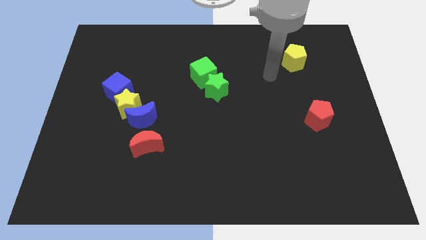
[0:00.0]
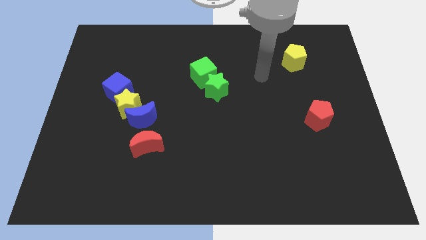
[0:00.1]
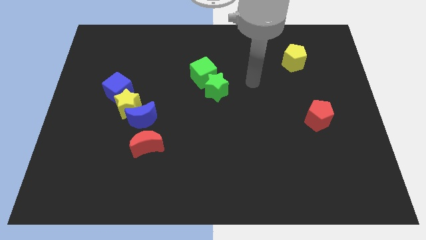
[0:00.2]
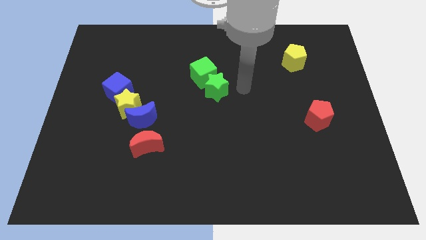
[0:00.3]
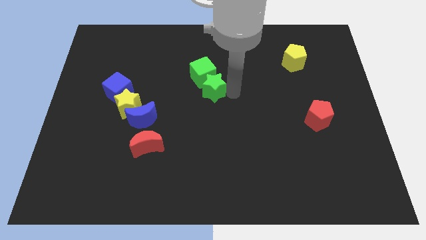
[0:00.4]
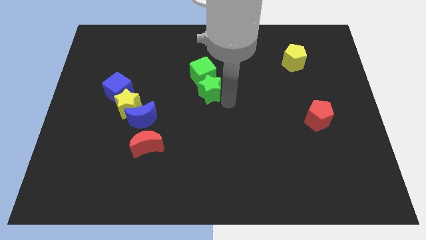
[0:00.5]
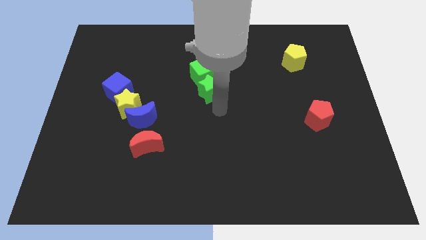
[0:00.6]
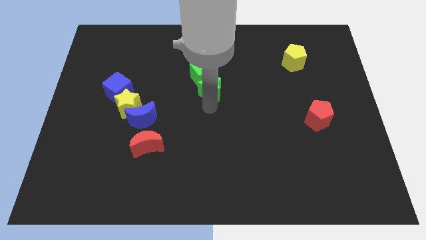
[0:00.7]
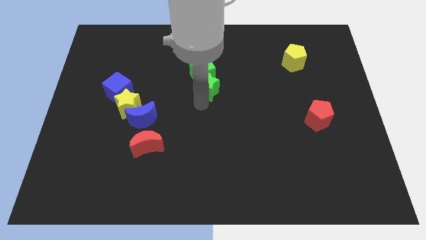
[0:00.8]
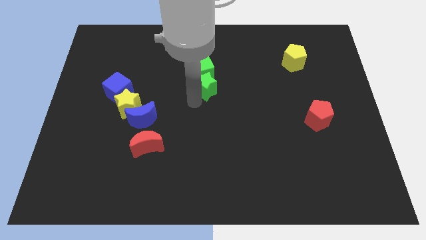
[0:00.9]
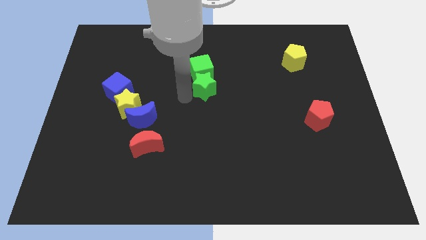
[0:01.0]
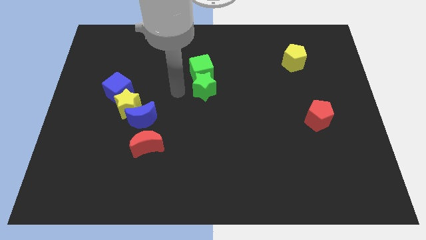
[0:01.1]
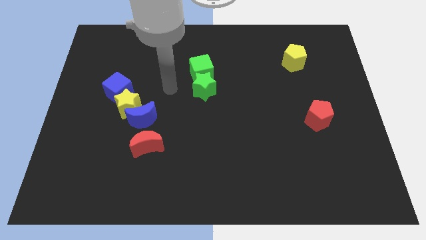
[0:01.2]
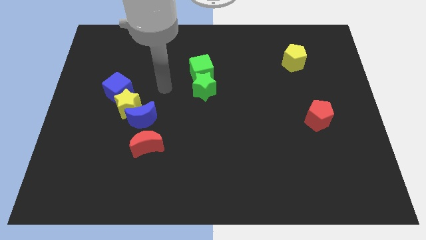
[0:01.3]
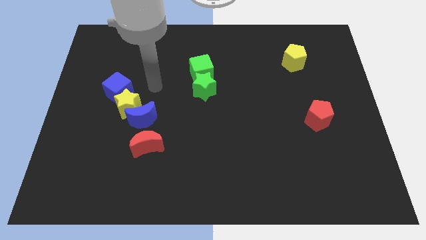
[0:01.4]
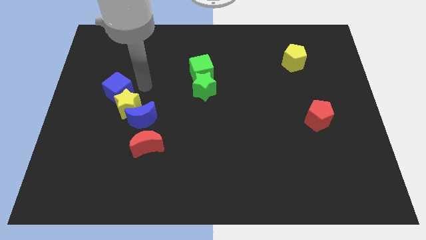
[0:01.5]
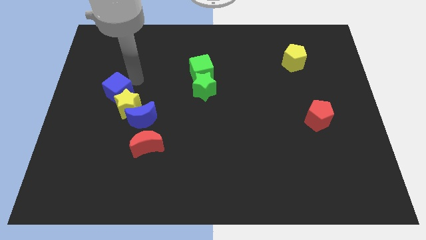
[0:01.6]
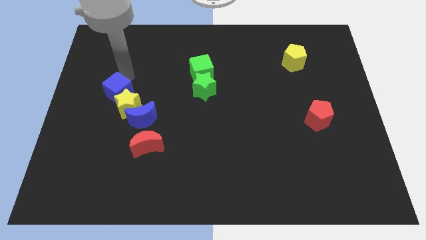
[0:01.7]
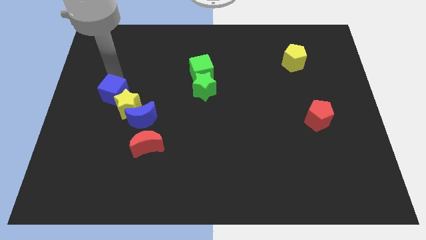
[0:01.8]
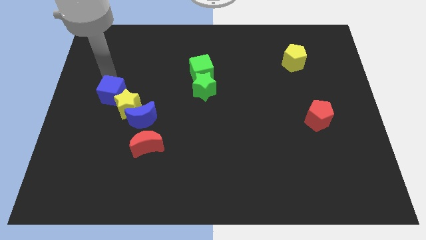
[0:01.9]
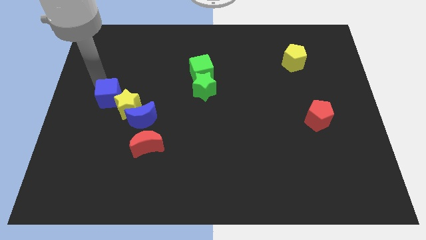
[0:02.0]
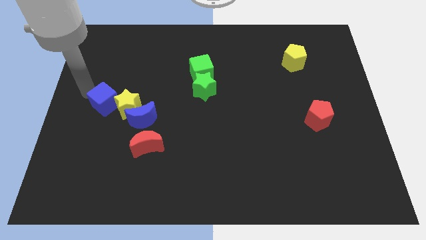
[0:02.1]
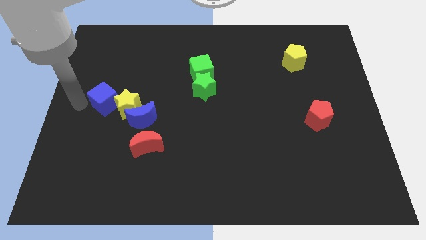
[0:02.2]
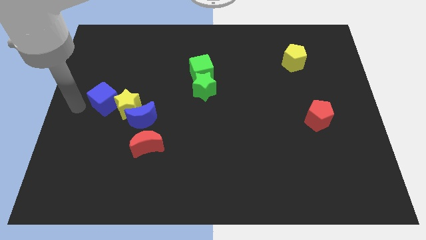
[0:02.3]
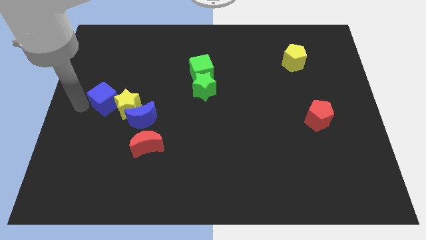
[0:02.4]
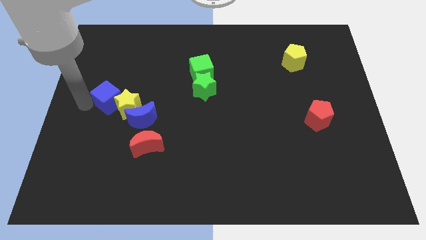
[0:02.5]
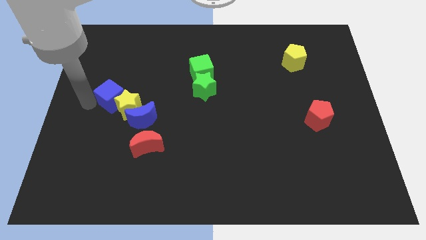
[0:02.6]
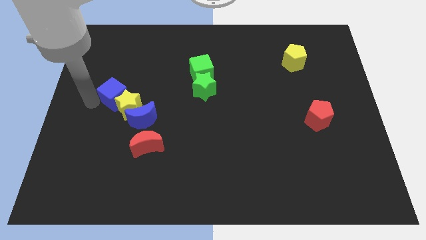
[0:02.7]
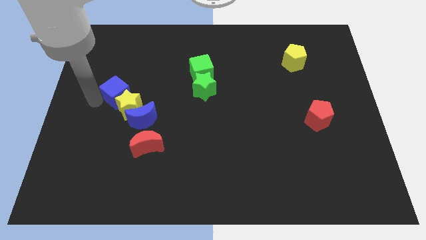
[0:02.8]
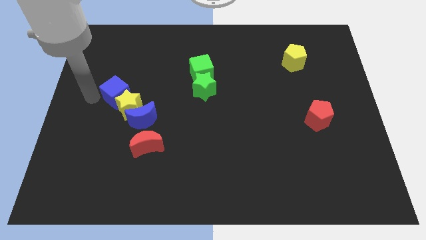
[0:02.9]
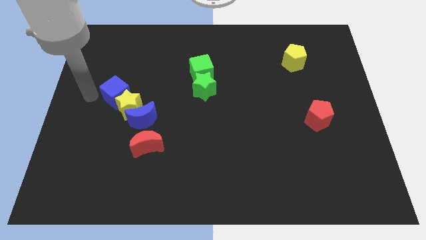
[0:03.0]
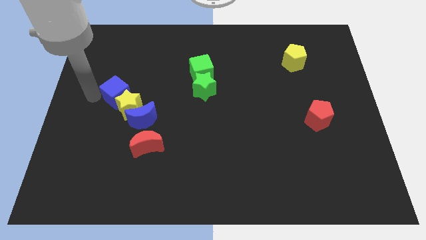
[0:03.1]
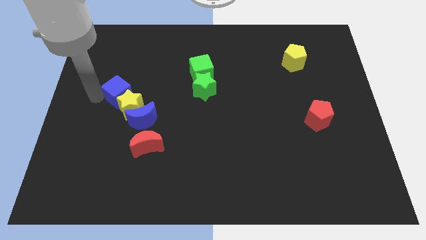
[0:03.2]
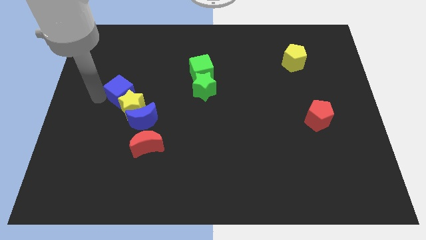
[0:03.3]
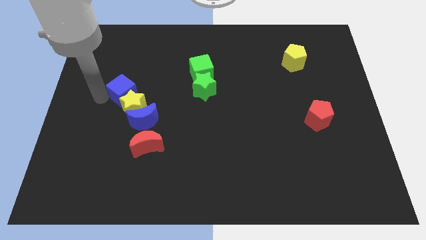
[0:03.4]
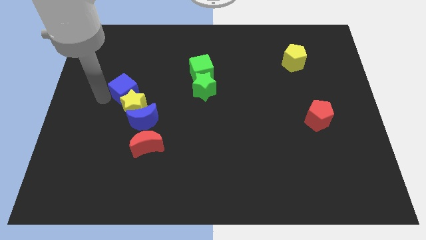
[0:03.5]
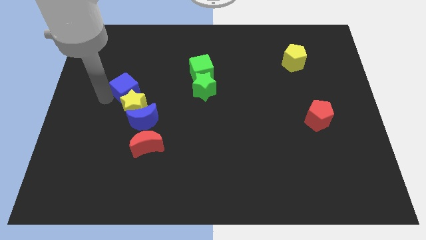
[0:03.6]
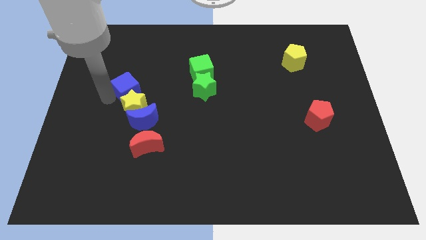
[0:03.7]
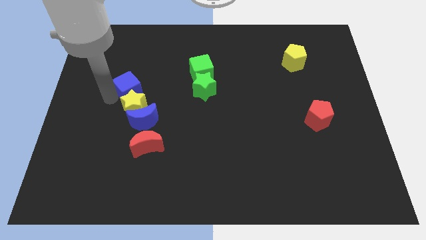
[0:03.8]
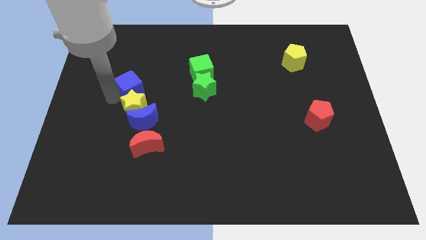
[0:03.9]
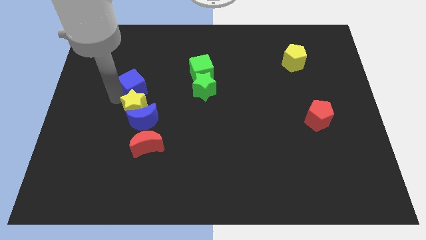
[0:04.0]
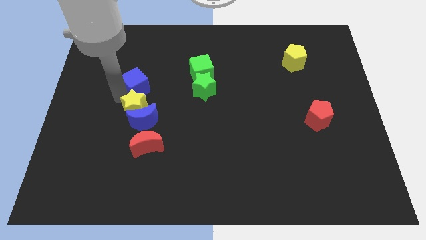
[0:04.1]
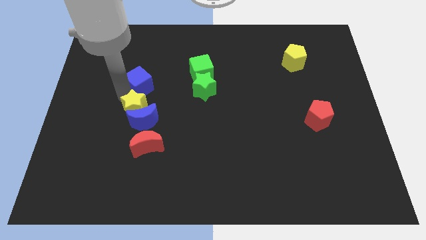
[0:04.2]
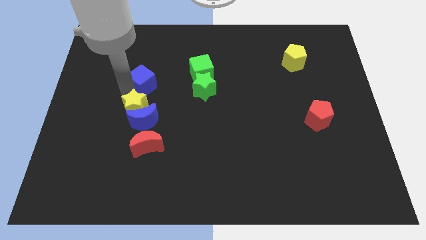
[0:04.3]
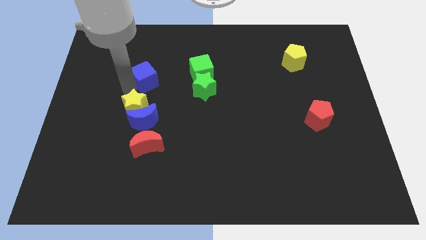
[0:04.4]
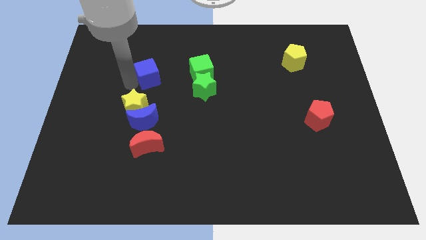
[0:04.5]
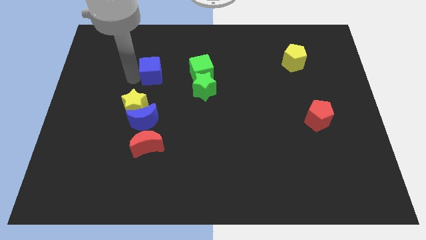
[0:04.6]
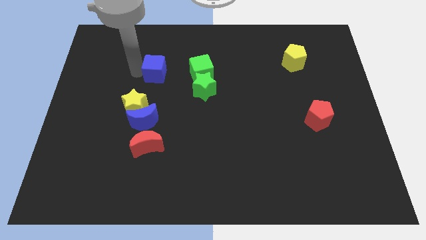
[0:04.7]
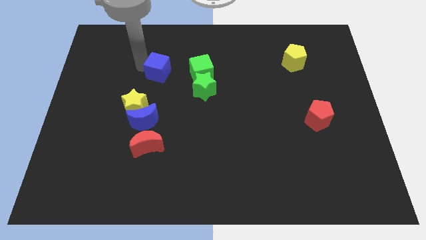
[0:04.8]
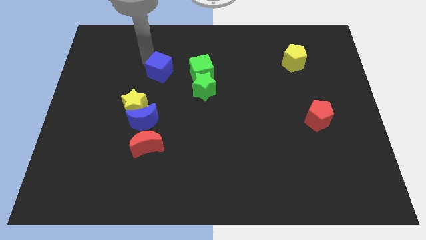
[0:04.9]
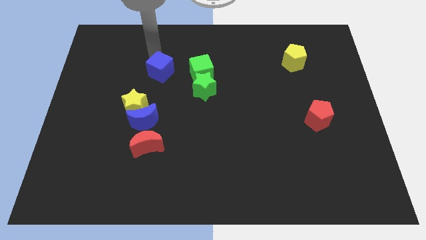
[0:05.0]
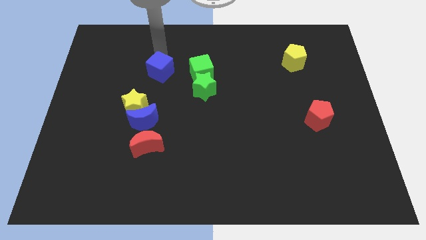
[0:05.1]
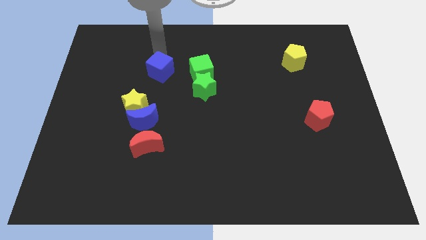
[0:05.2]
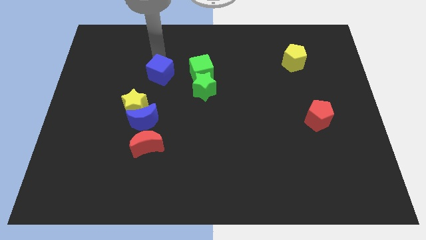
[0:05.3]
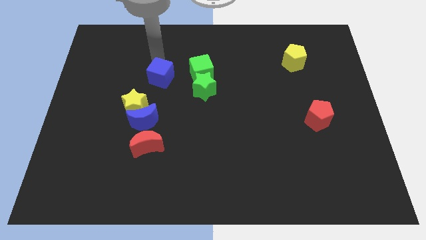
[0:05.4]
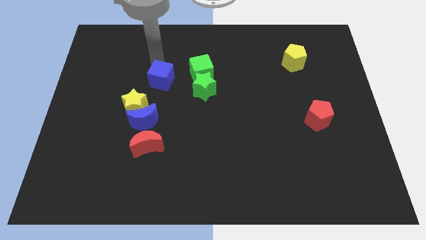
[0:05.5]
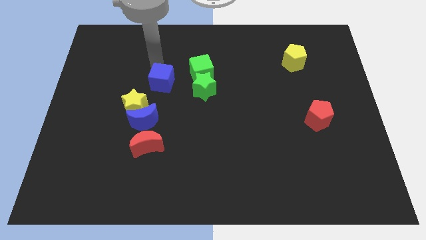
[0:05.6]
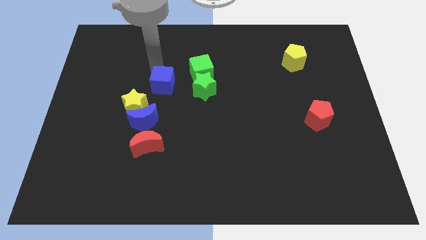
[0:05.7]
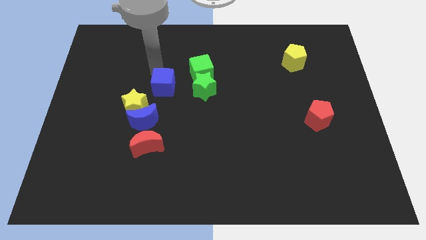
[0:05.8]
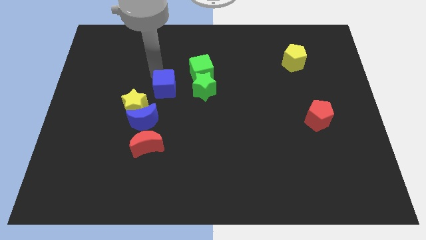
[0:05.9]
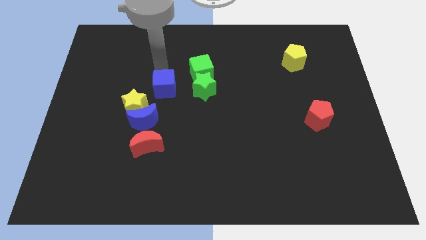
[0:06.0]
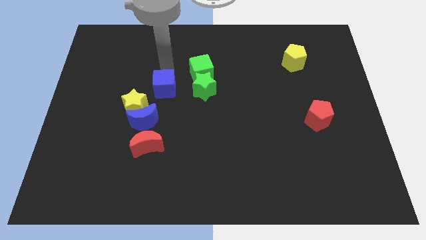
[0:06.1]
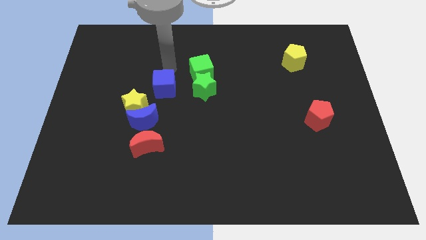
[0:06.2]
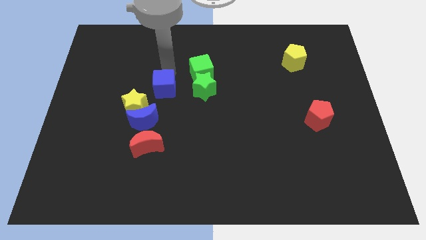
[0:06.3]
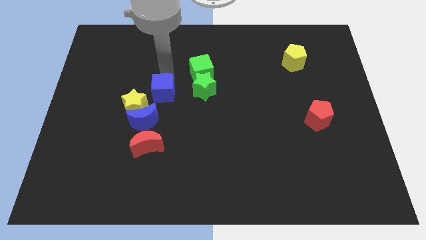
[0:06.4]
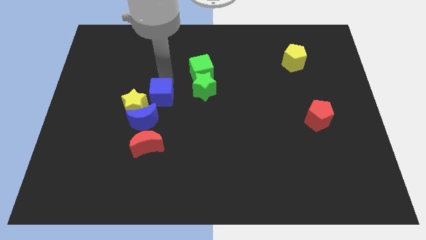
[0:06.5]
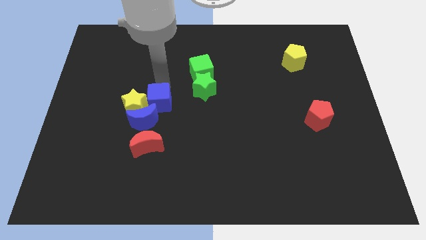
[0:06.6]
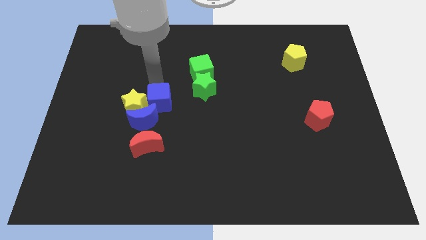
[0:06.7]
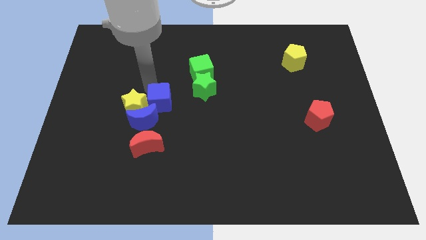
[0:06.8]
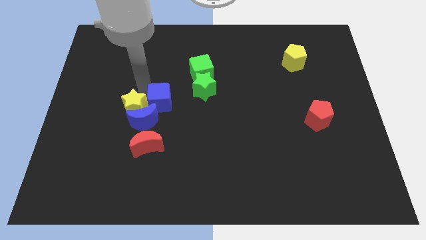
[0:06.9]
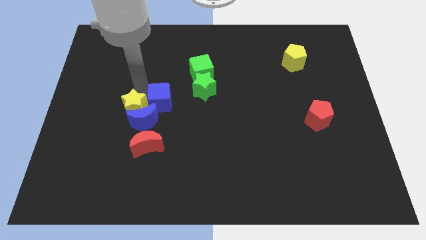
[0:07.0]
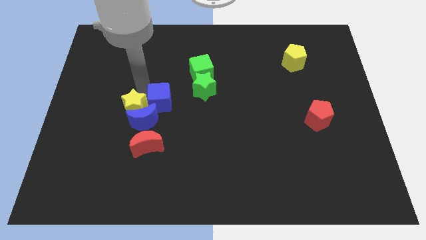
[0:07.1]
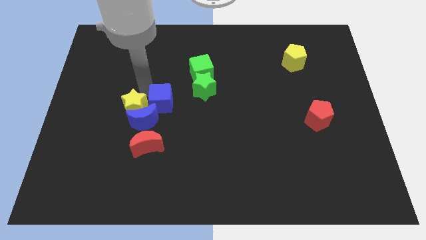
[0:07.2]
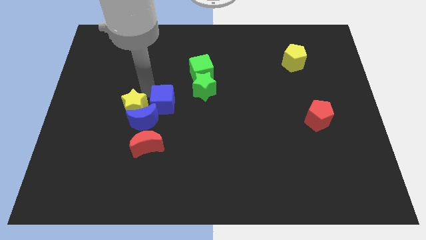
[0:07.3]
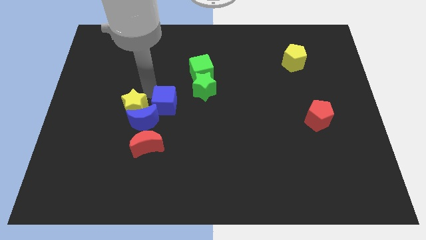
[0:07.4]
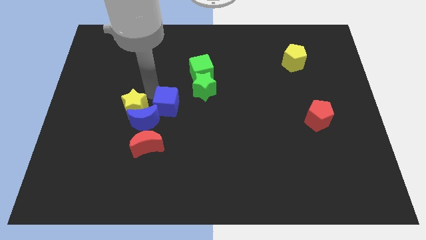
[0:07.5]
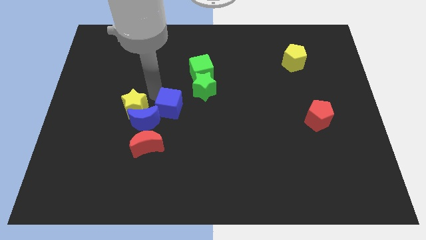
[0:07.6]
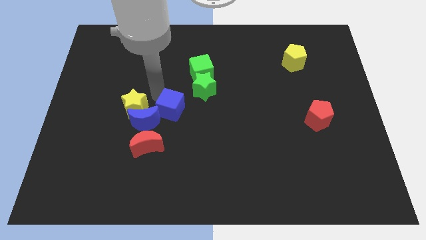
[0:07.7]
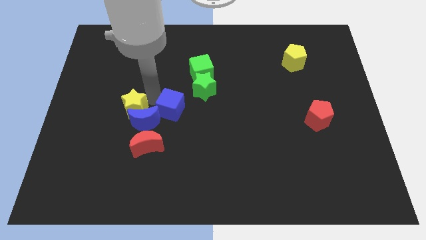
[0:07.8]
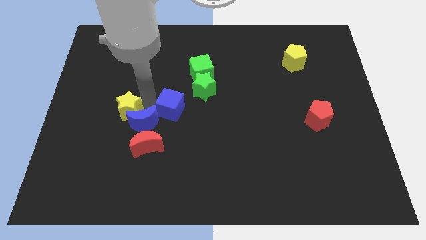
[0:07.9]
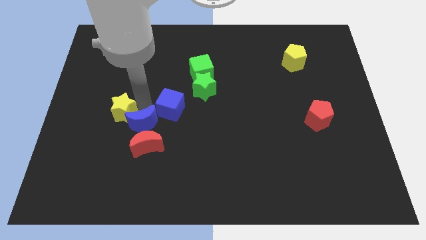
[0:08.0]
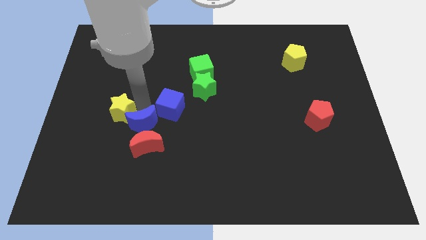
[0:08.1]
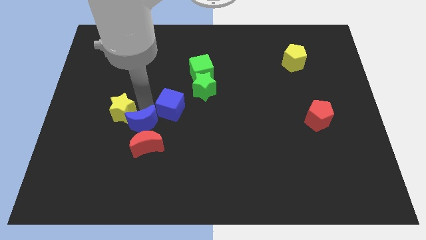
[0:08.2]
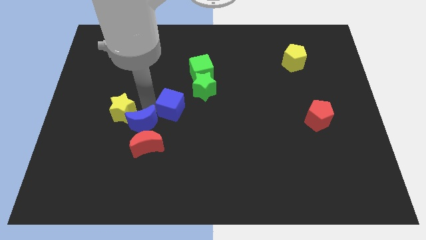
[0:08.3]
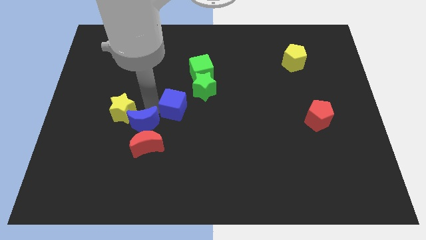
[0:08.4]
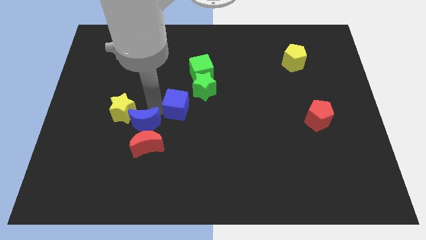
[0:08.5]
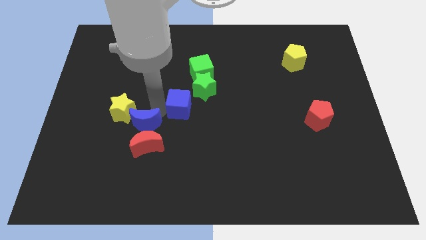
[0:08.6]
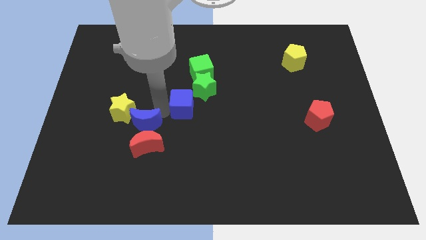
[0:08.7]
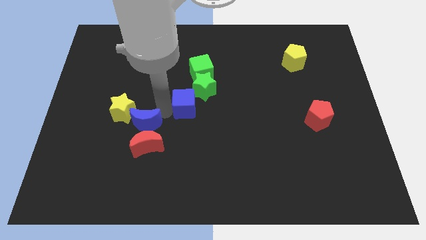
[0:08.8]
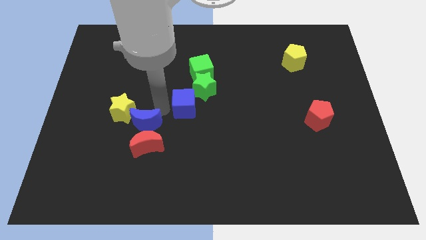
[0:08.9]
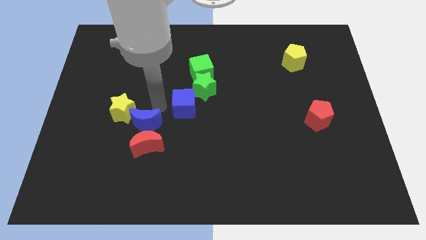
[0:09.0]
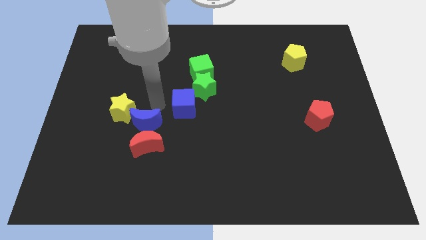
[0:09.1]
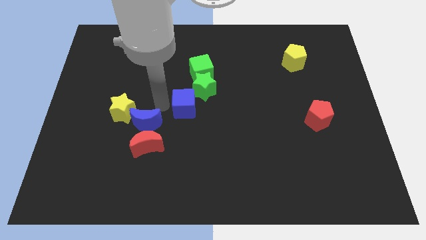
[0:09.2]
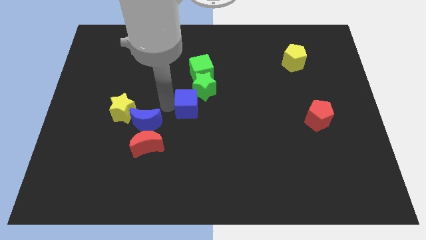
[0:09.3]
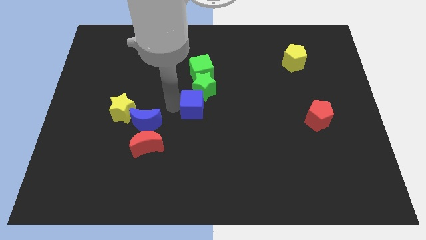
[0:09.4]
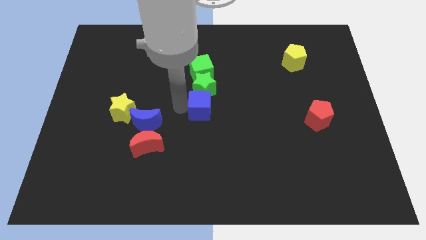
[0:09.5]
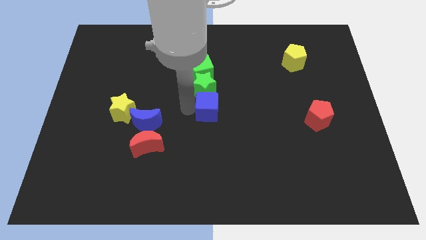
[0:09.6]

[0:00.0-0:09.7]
push the blue cube right
